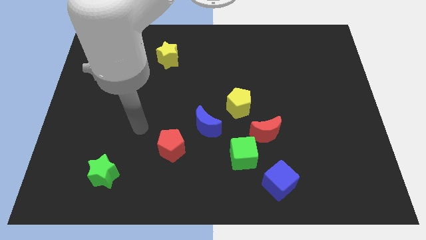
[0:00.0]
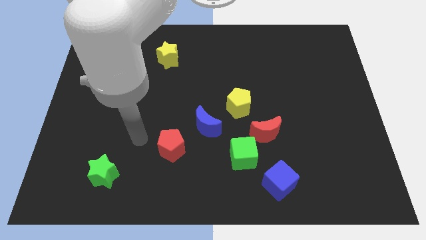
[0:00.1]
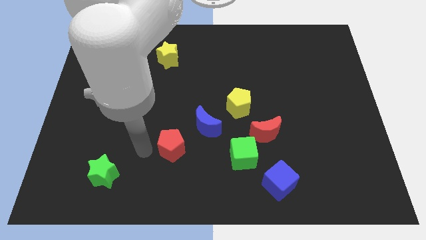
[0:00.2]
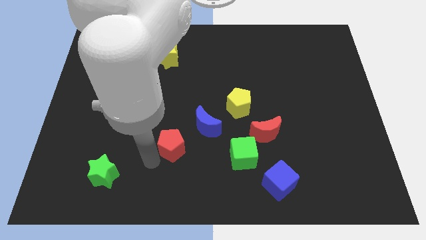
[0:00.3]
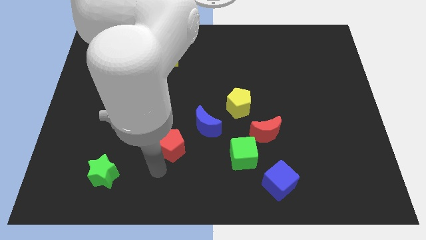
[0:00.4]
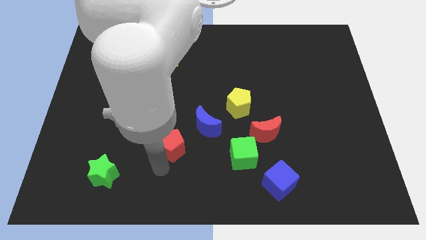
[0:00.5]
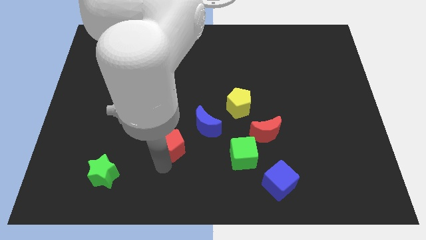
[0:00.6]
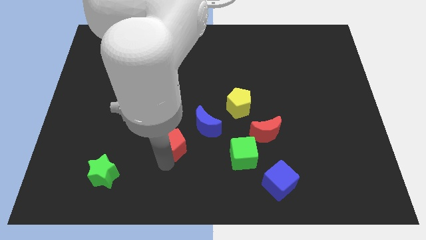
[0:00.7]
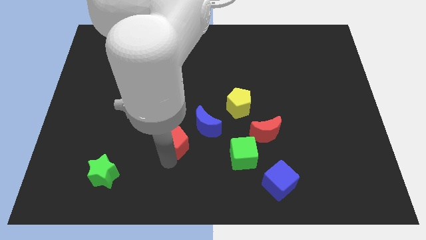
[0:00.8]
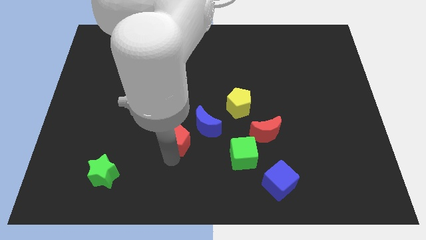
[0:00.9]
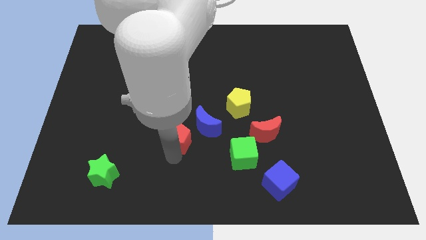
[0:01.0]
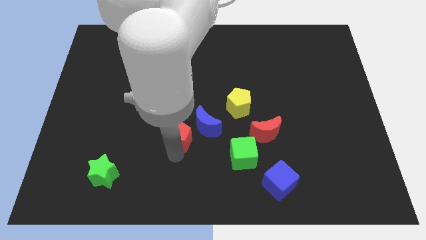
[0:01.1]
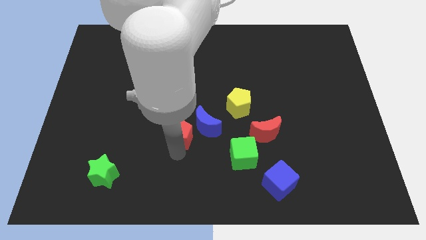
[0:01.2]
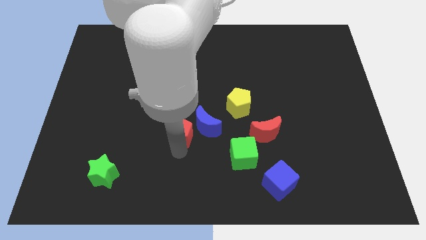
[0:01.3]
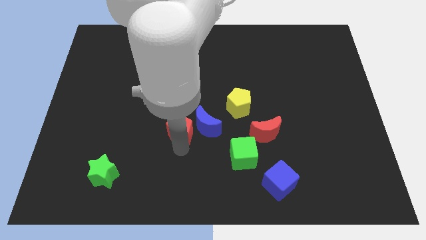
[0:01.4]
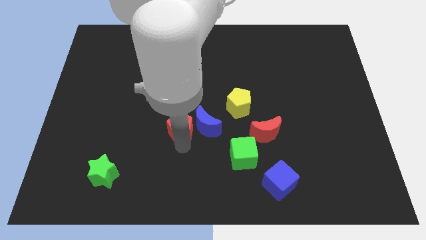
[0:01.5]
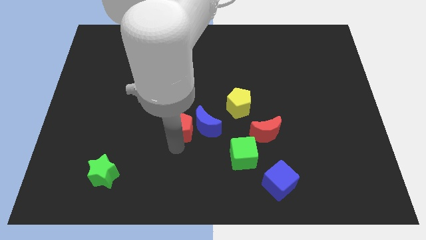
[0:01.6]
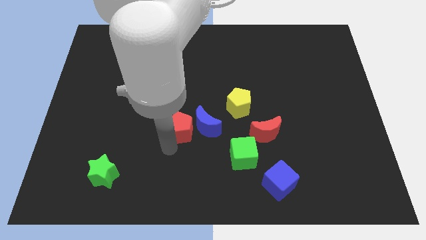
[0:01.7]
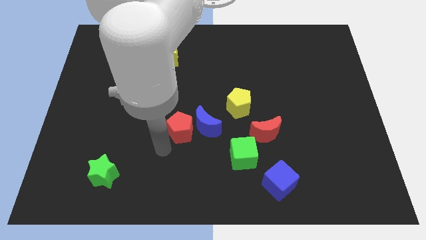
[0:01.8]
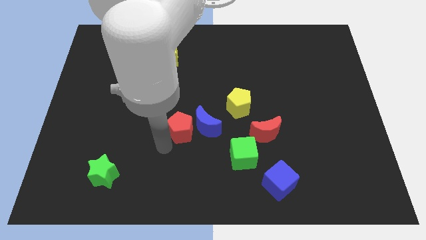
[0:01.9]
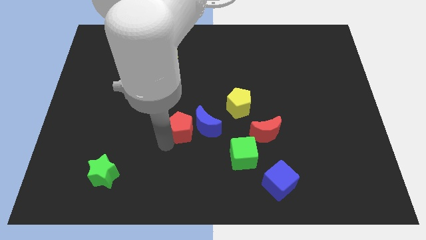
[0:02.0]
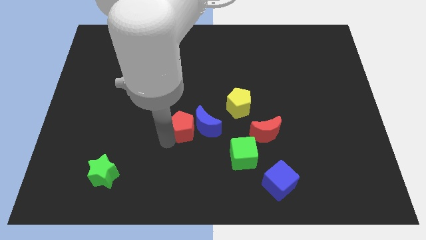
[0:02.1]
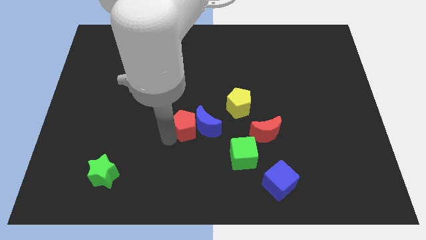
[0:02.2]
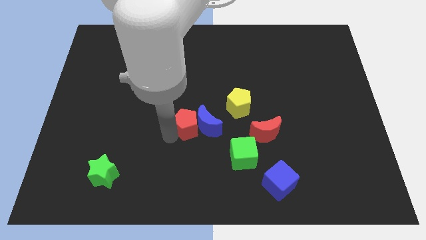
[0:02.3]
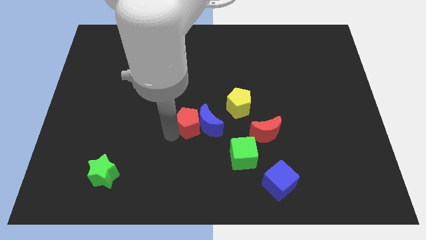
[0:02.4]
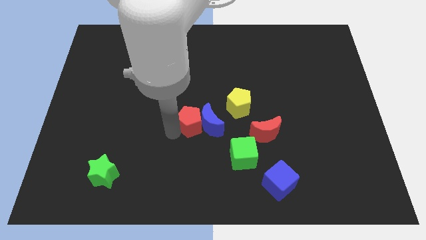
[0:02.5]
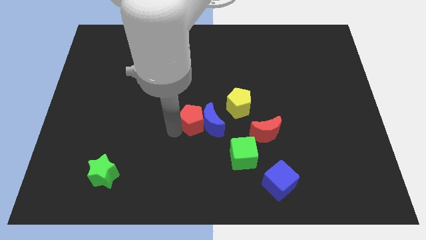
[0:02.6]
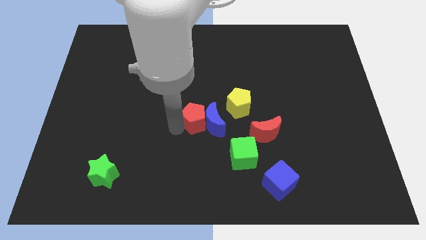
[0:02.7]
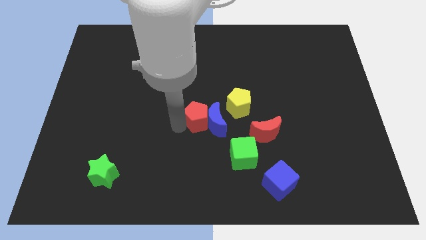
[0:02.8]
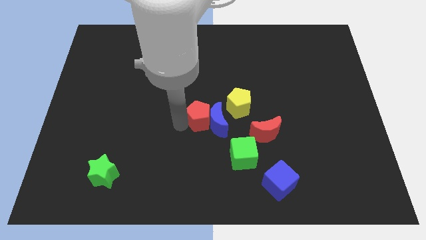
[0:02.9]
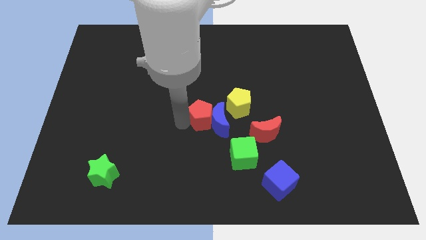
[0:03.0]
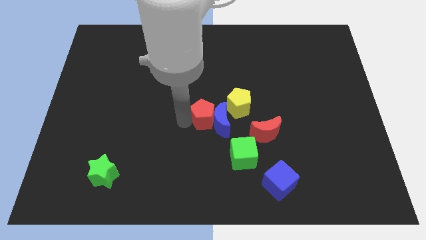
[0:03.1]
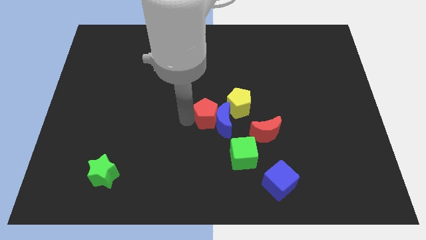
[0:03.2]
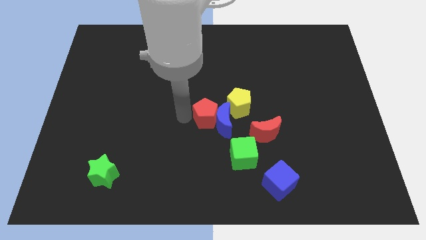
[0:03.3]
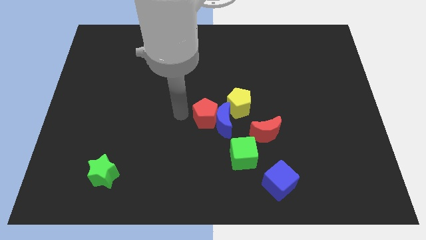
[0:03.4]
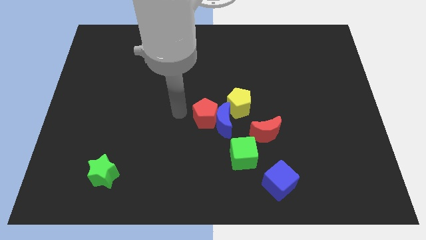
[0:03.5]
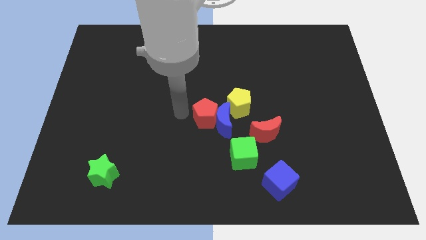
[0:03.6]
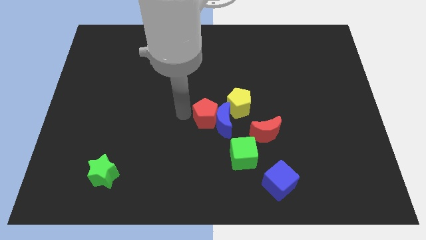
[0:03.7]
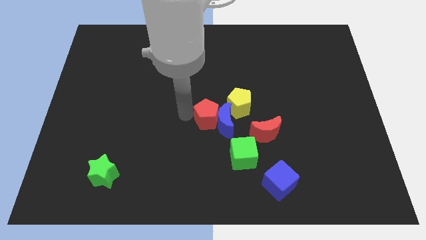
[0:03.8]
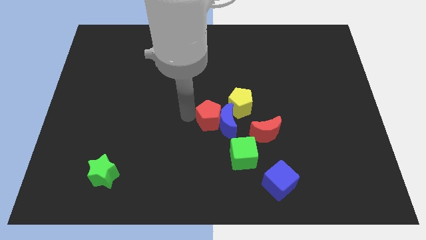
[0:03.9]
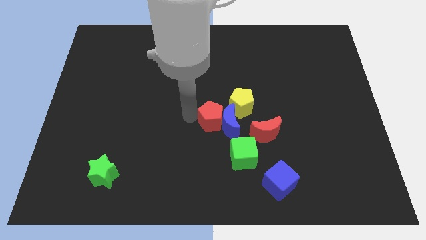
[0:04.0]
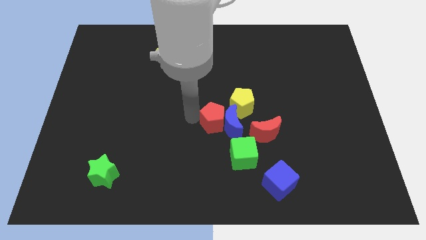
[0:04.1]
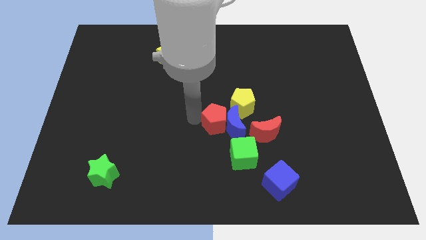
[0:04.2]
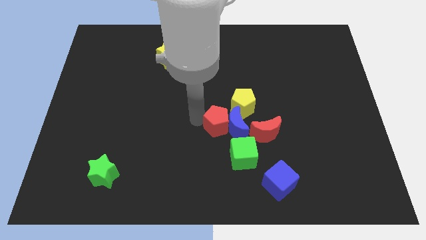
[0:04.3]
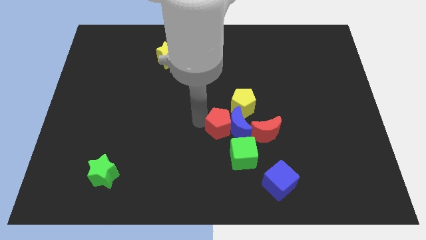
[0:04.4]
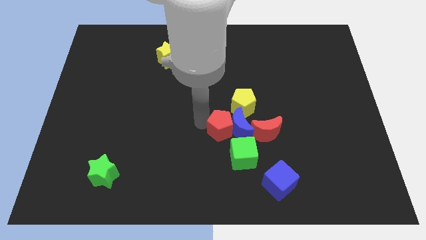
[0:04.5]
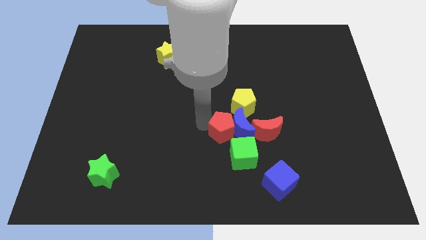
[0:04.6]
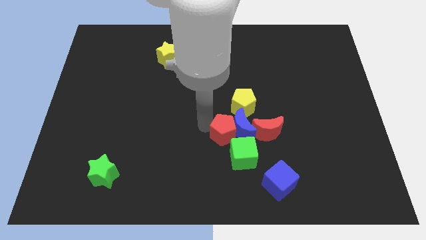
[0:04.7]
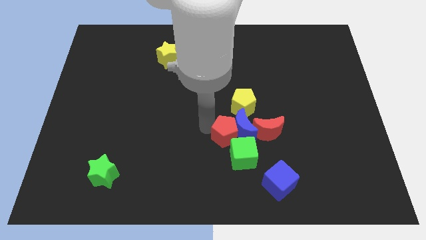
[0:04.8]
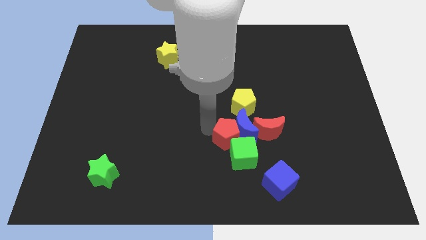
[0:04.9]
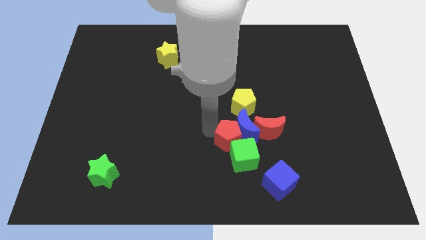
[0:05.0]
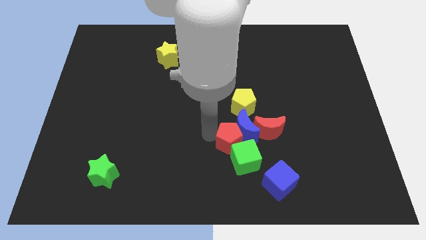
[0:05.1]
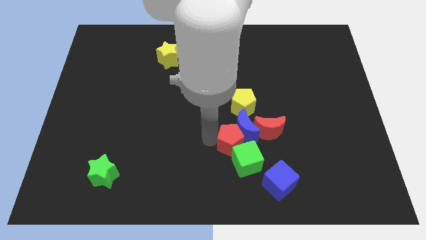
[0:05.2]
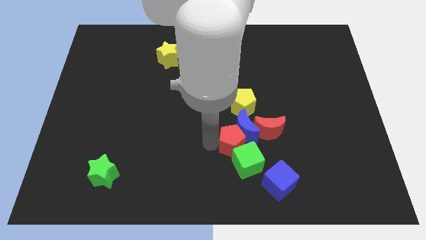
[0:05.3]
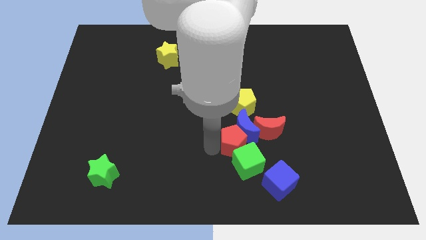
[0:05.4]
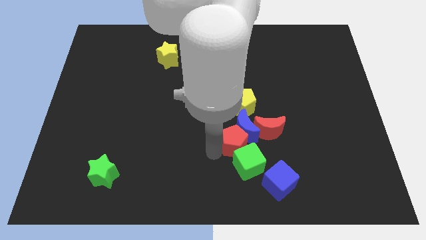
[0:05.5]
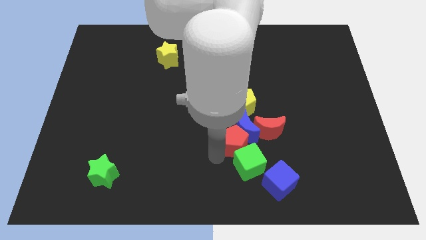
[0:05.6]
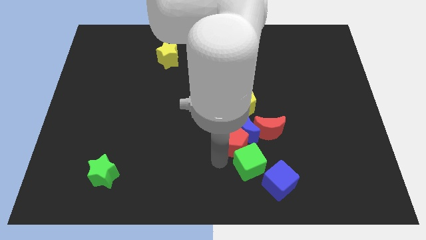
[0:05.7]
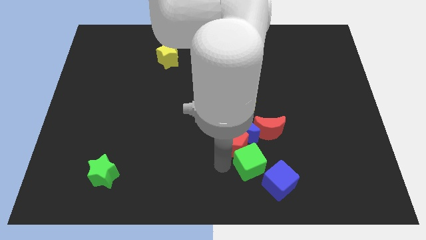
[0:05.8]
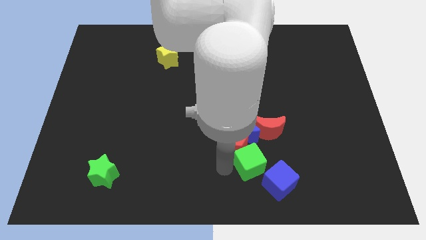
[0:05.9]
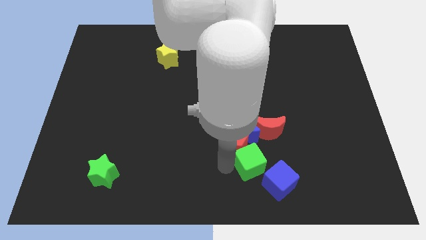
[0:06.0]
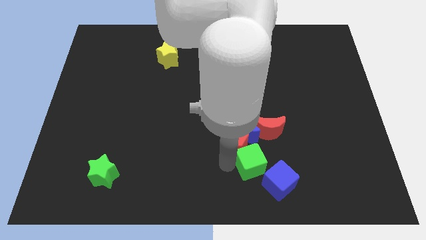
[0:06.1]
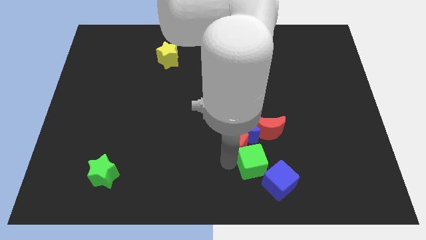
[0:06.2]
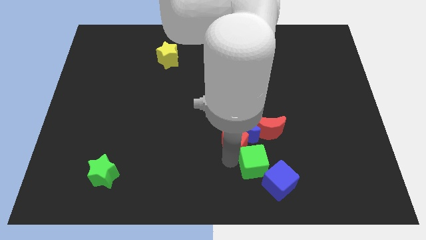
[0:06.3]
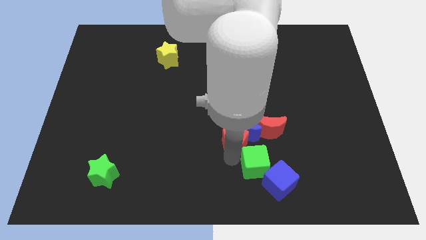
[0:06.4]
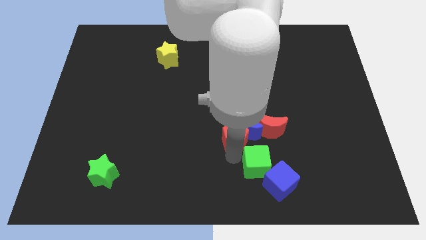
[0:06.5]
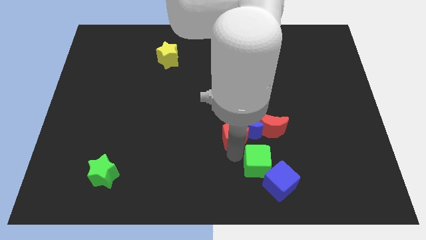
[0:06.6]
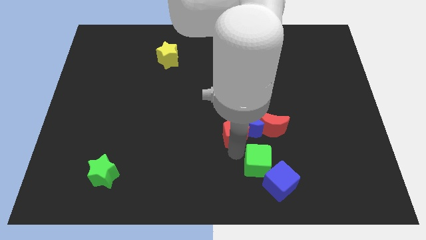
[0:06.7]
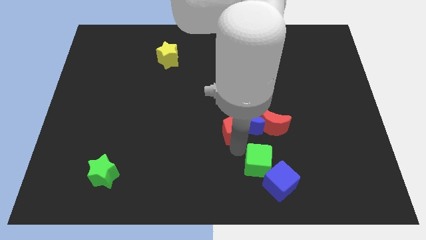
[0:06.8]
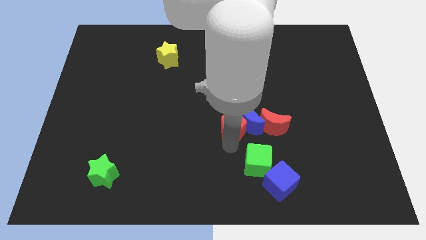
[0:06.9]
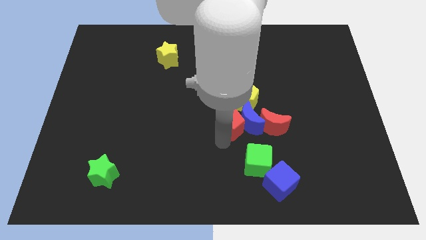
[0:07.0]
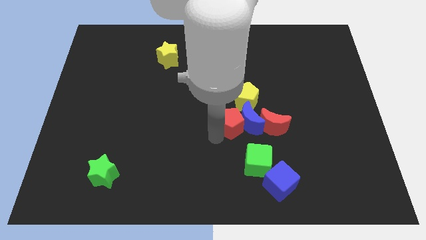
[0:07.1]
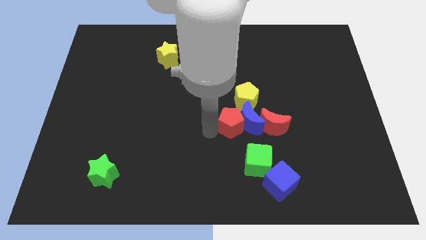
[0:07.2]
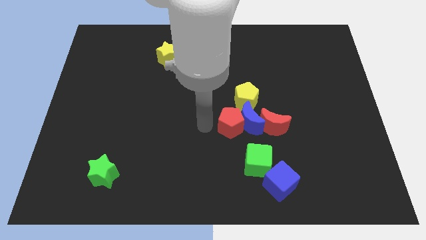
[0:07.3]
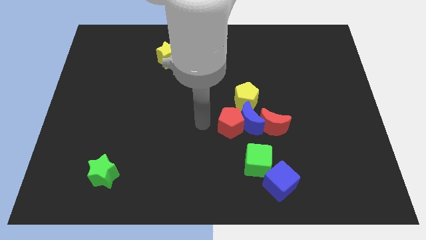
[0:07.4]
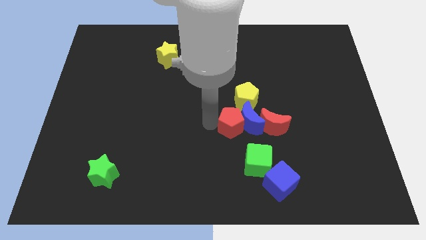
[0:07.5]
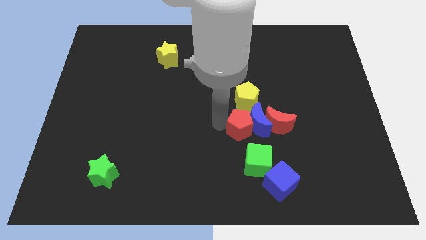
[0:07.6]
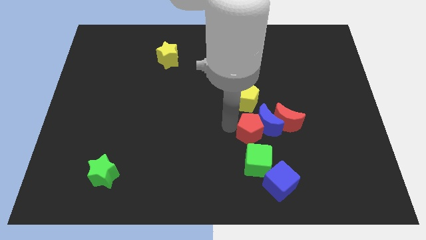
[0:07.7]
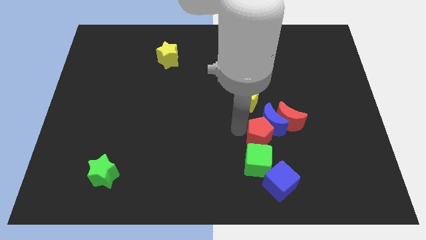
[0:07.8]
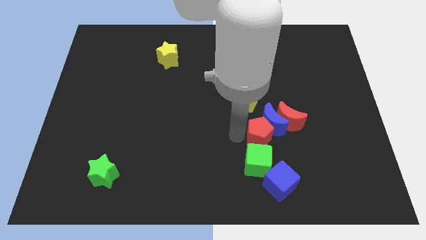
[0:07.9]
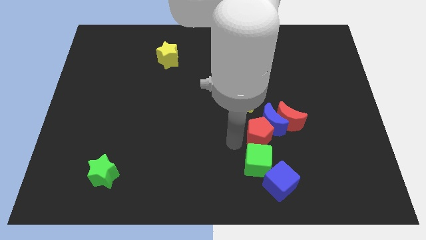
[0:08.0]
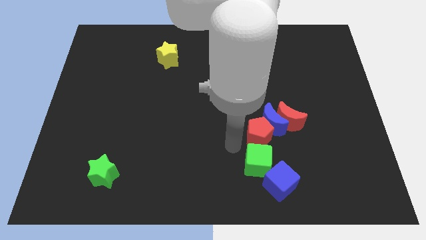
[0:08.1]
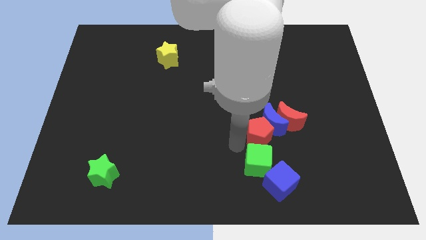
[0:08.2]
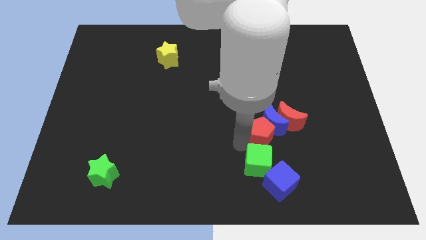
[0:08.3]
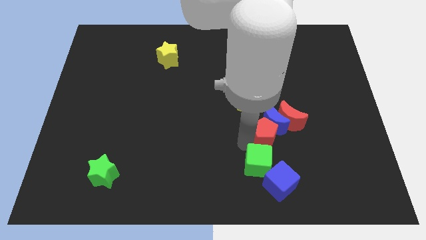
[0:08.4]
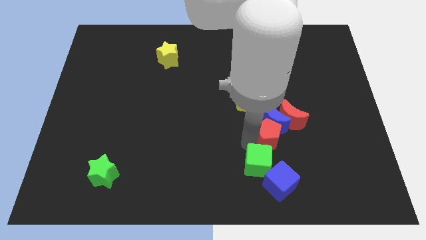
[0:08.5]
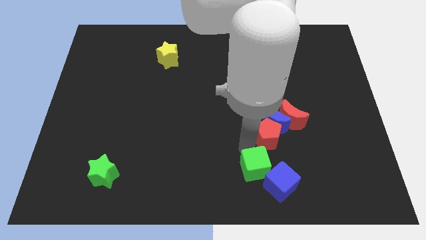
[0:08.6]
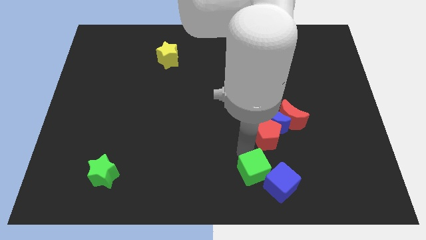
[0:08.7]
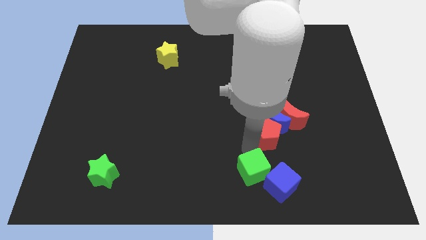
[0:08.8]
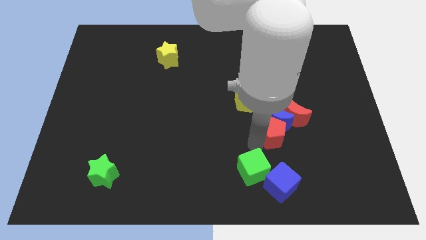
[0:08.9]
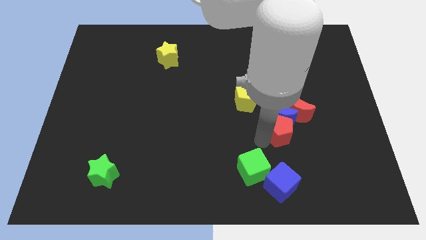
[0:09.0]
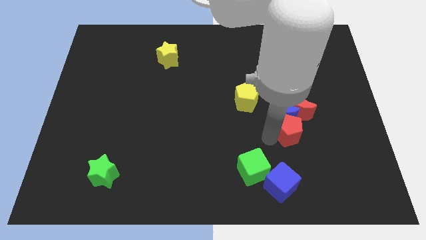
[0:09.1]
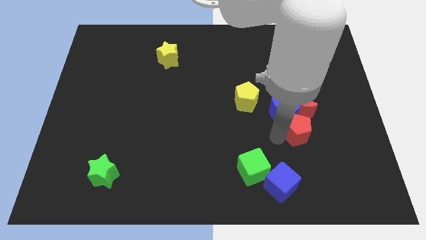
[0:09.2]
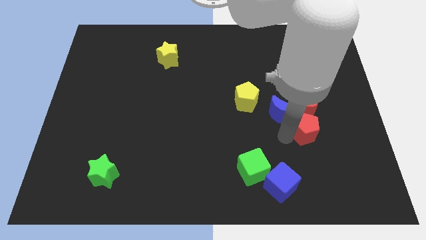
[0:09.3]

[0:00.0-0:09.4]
move the red pentagon towards the red moon
